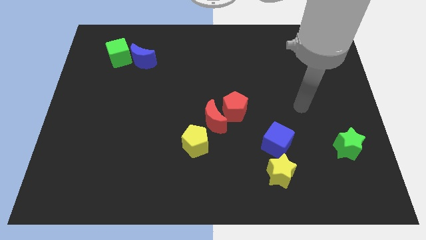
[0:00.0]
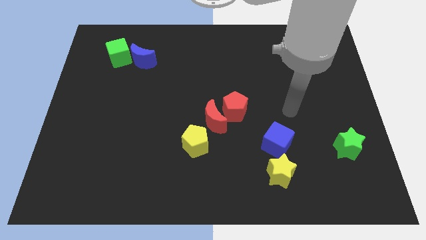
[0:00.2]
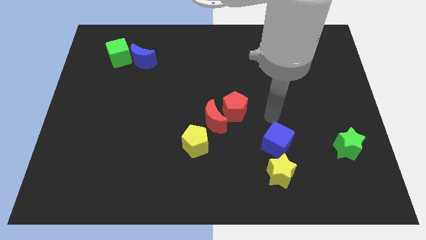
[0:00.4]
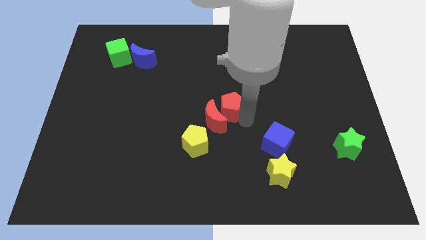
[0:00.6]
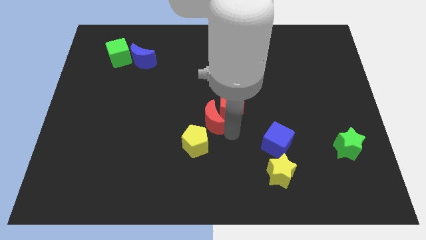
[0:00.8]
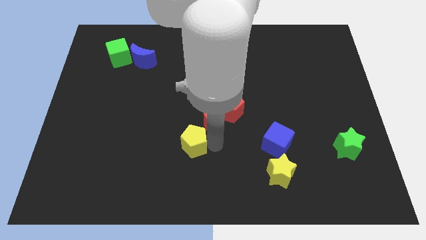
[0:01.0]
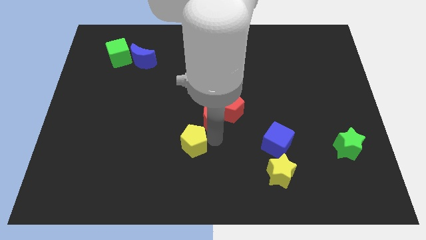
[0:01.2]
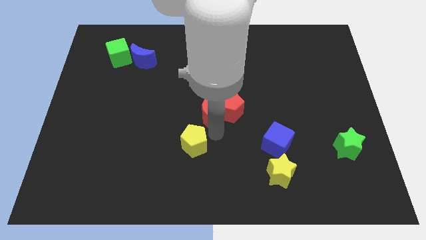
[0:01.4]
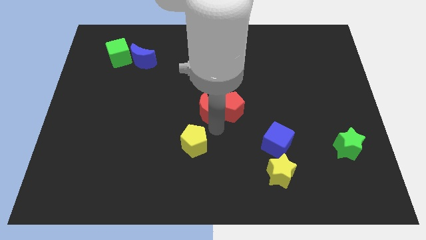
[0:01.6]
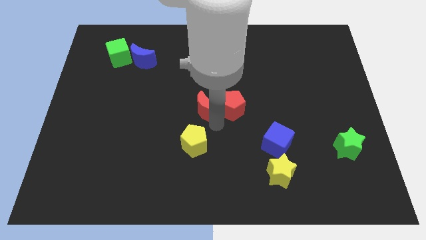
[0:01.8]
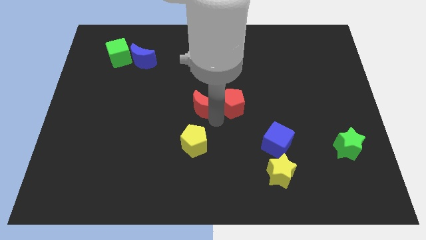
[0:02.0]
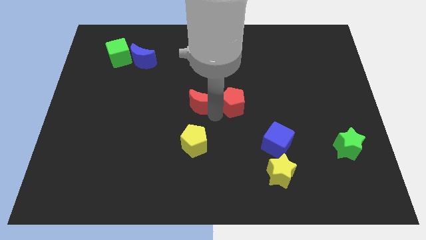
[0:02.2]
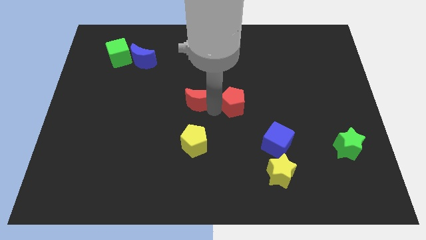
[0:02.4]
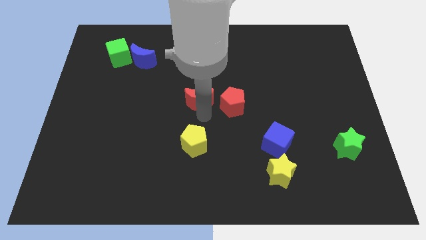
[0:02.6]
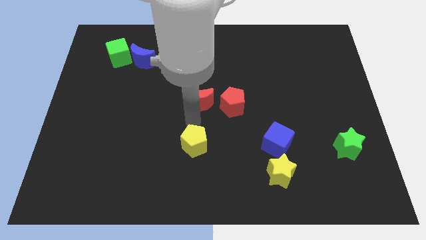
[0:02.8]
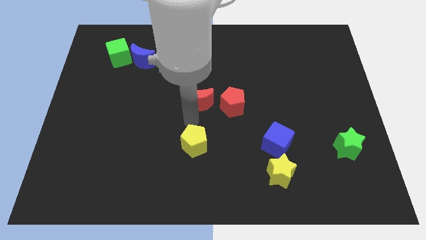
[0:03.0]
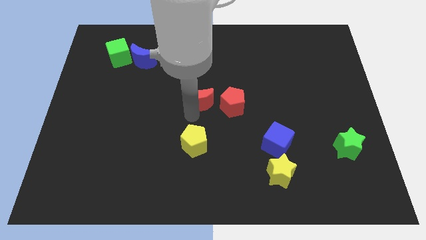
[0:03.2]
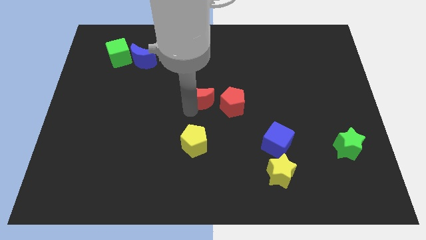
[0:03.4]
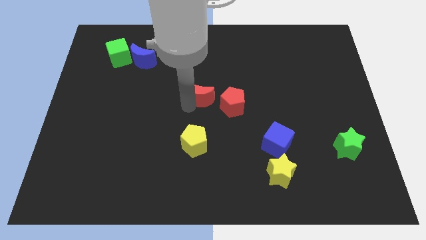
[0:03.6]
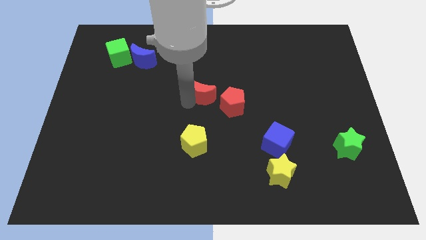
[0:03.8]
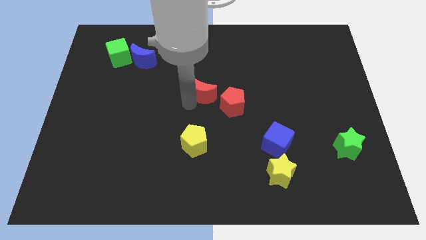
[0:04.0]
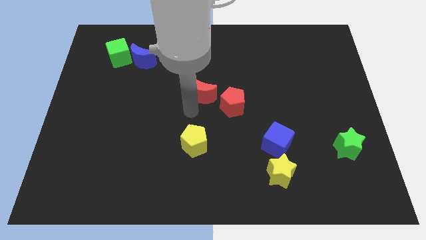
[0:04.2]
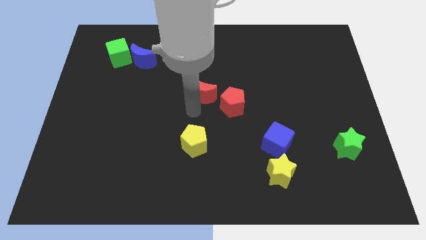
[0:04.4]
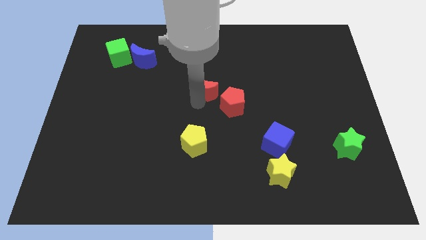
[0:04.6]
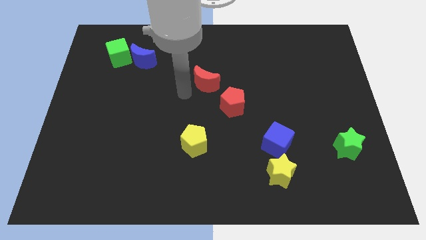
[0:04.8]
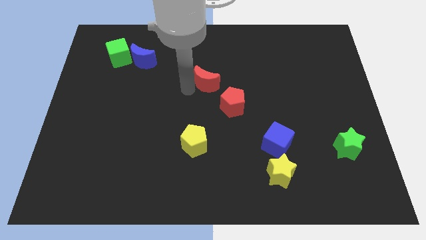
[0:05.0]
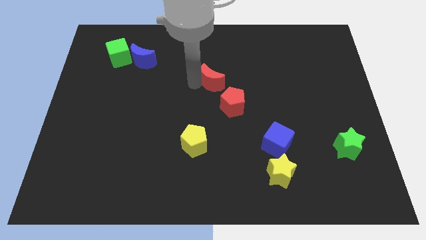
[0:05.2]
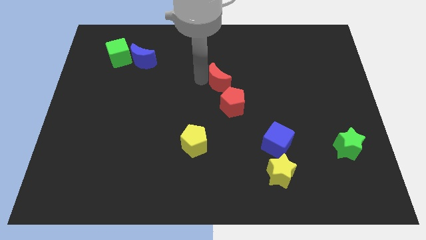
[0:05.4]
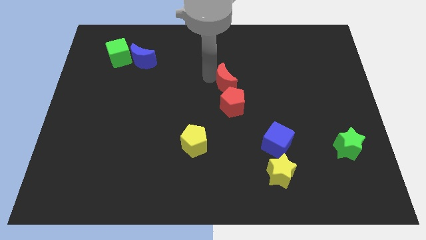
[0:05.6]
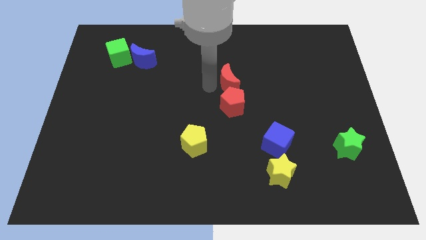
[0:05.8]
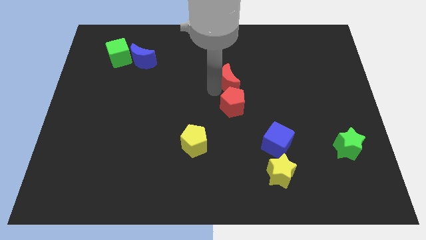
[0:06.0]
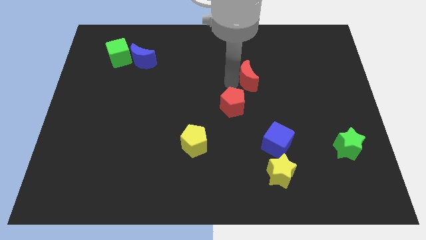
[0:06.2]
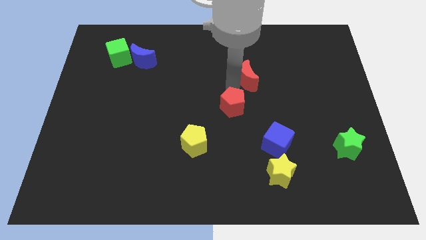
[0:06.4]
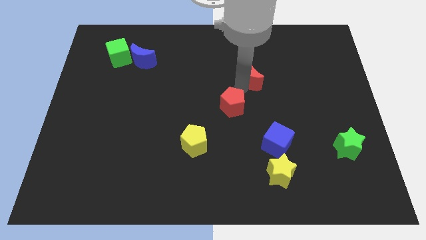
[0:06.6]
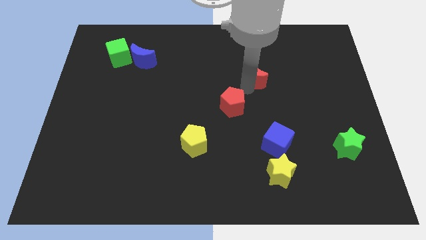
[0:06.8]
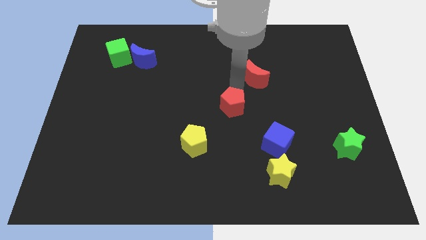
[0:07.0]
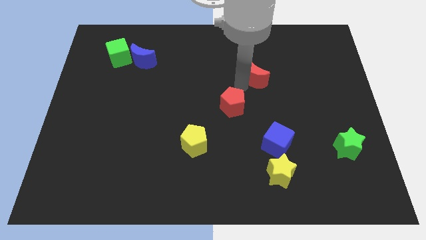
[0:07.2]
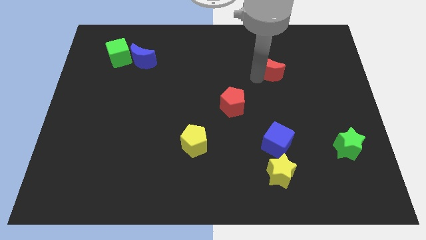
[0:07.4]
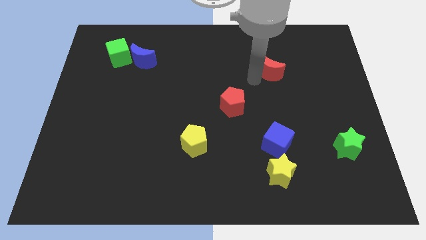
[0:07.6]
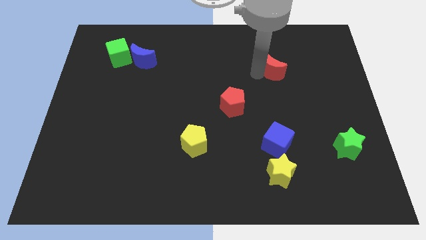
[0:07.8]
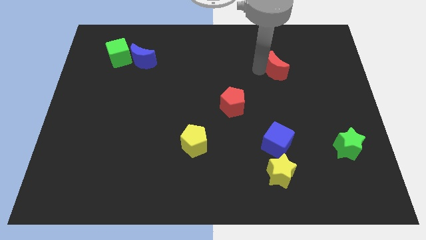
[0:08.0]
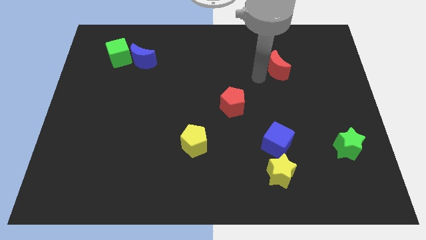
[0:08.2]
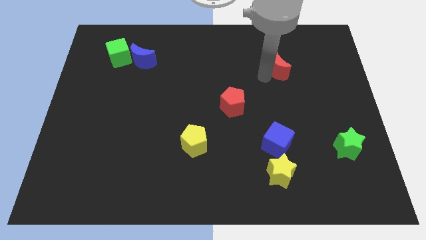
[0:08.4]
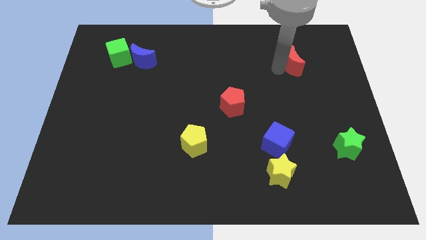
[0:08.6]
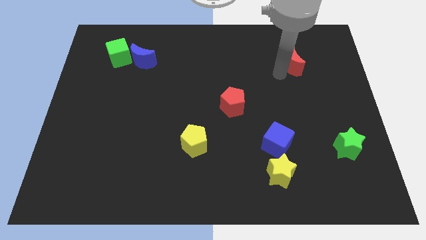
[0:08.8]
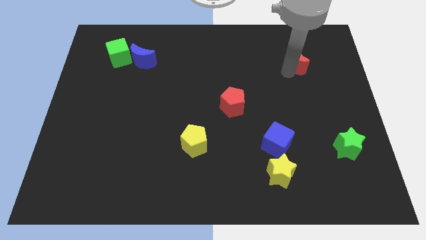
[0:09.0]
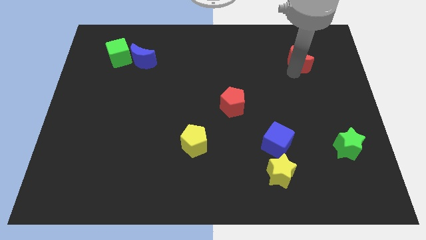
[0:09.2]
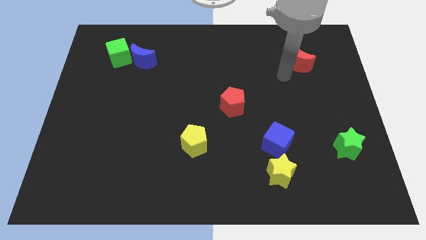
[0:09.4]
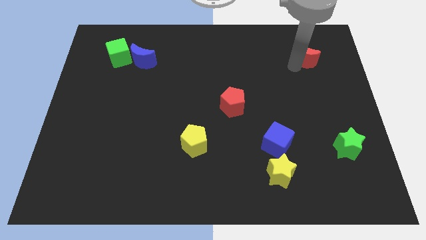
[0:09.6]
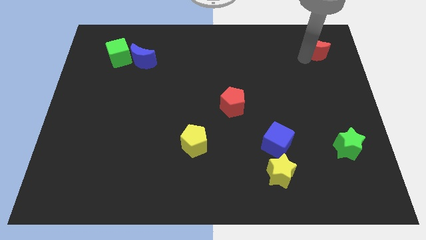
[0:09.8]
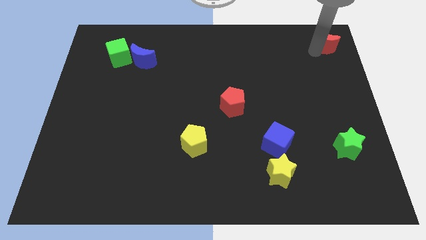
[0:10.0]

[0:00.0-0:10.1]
put the red moon to the top right of the board

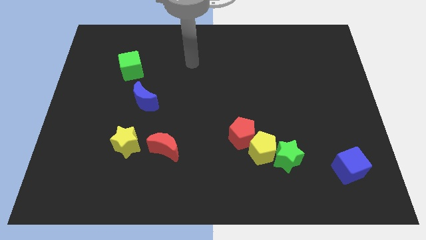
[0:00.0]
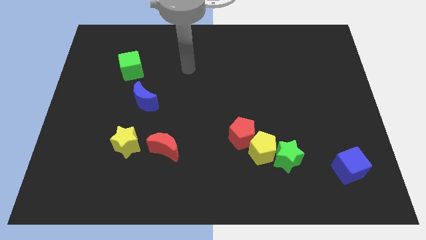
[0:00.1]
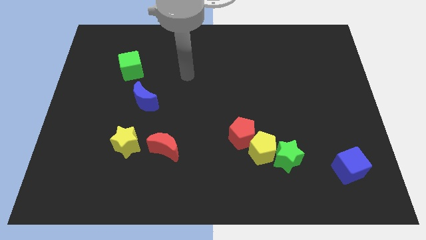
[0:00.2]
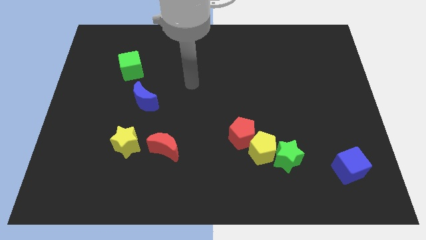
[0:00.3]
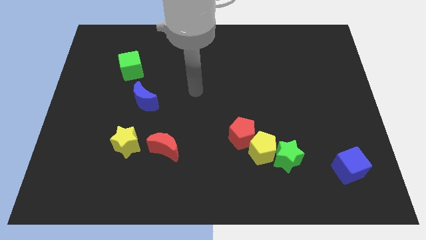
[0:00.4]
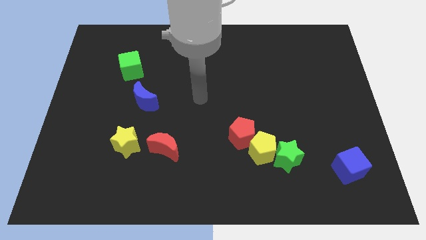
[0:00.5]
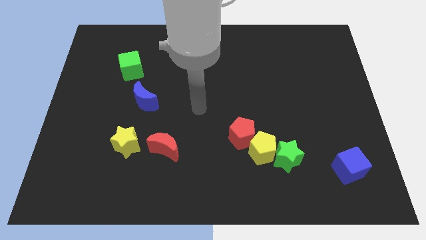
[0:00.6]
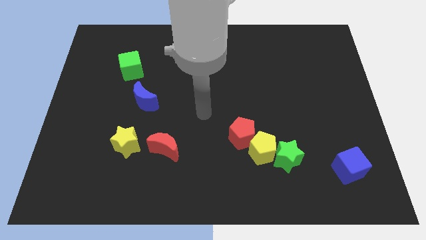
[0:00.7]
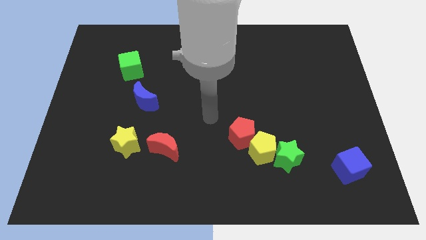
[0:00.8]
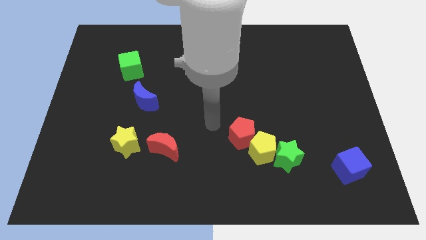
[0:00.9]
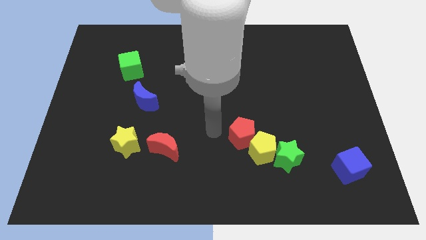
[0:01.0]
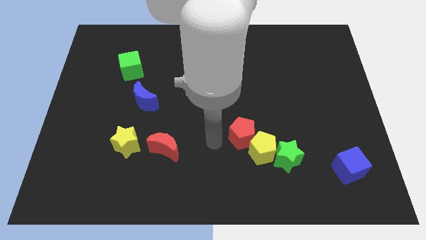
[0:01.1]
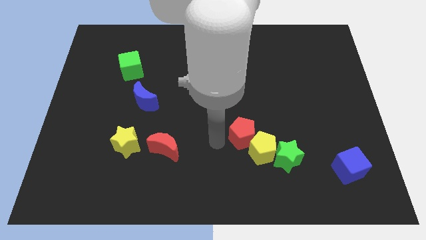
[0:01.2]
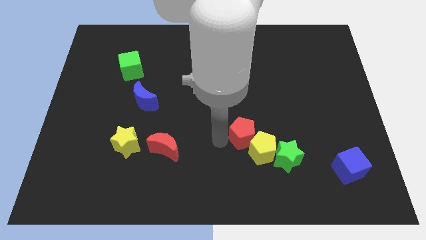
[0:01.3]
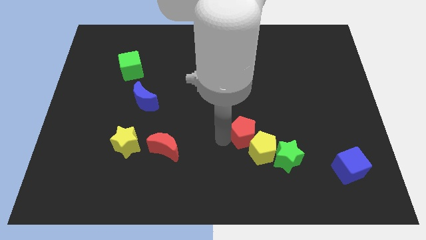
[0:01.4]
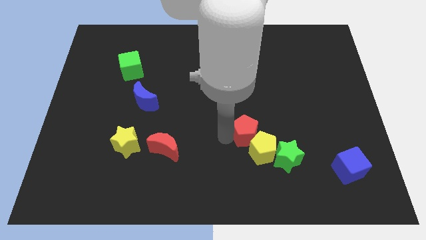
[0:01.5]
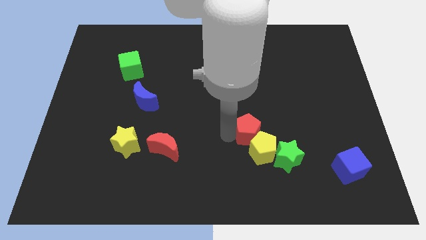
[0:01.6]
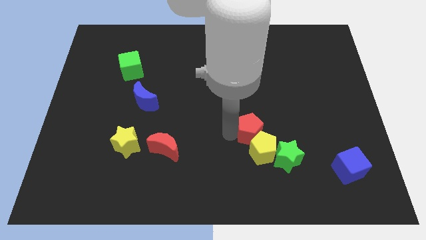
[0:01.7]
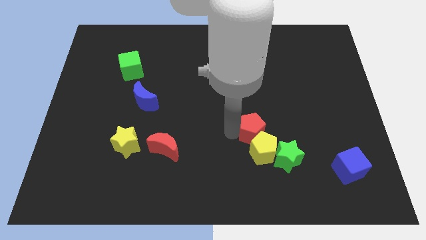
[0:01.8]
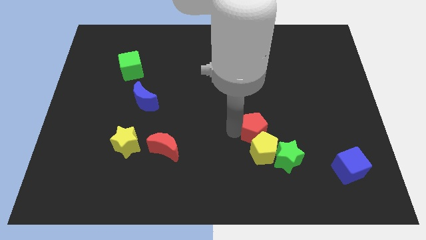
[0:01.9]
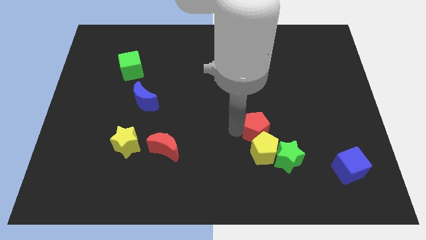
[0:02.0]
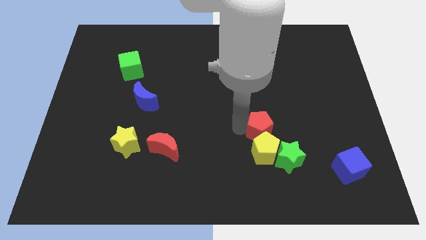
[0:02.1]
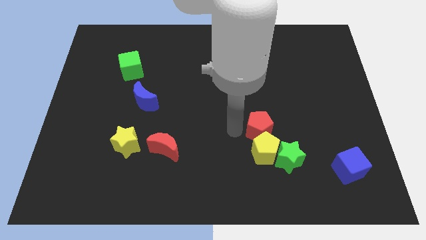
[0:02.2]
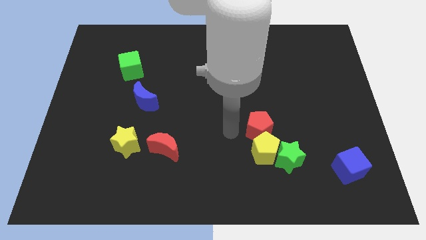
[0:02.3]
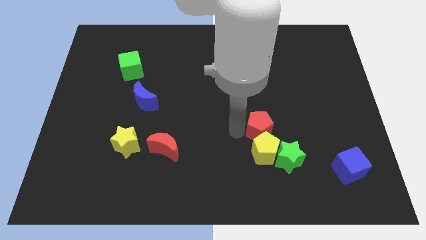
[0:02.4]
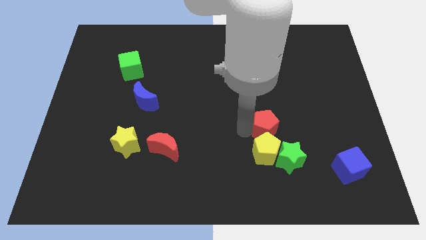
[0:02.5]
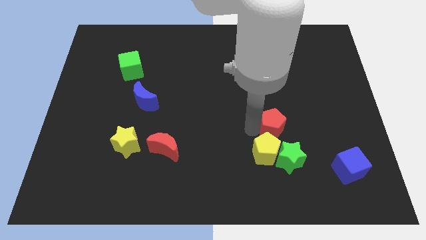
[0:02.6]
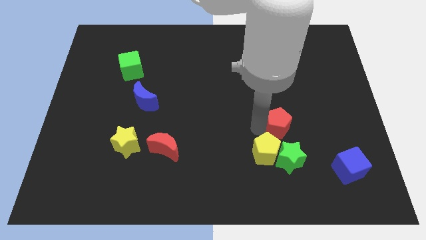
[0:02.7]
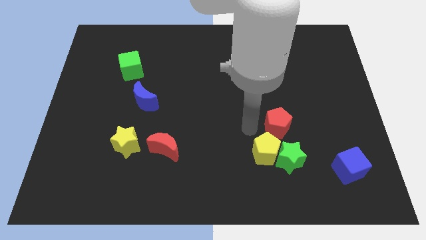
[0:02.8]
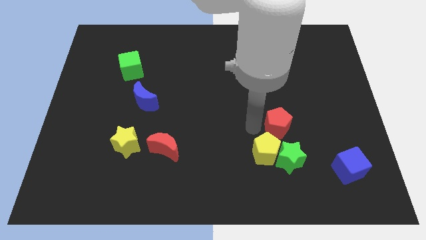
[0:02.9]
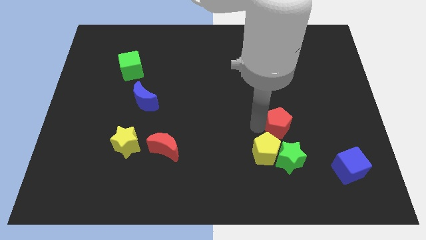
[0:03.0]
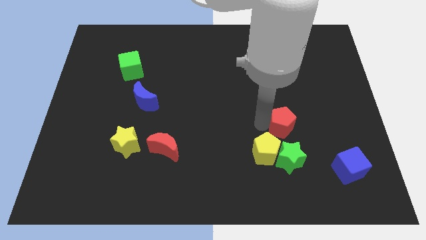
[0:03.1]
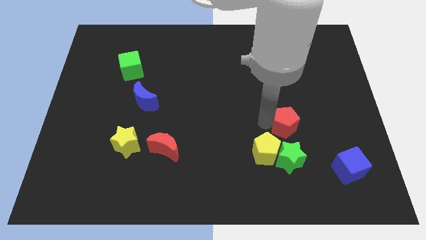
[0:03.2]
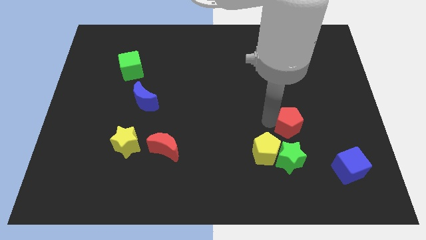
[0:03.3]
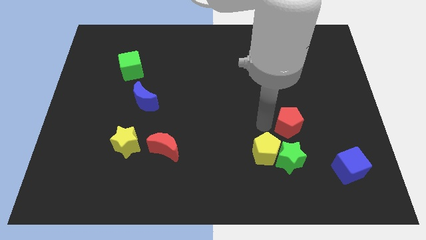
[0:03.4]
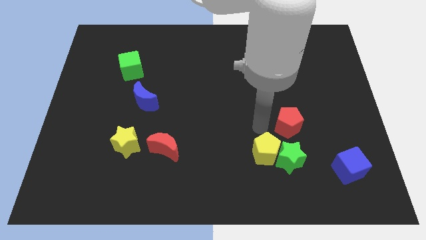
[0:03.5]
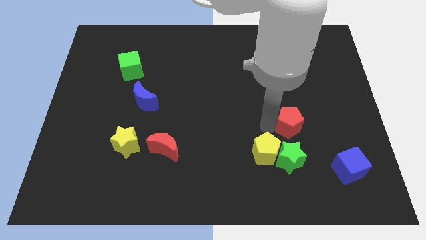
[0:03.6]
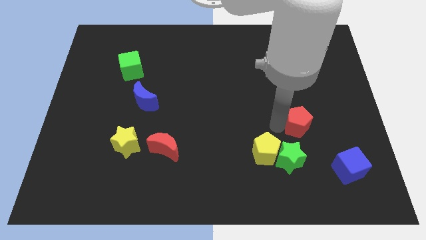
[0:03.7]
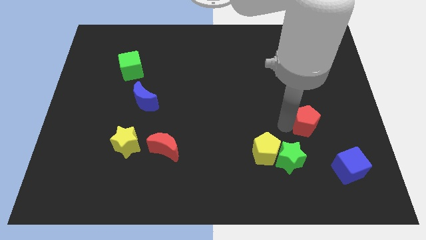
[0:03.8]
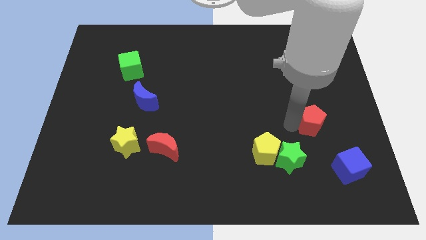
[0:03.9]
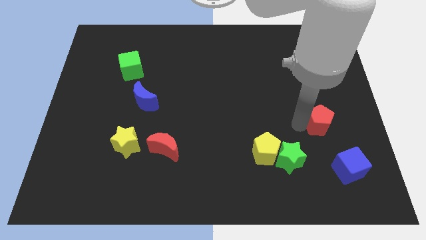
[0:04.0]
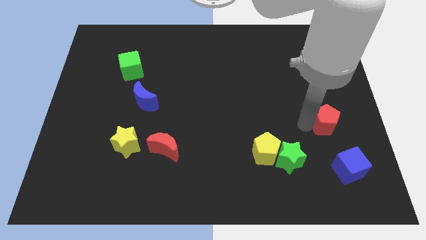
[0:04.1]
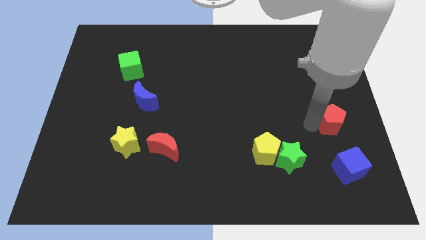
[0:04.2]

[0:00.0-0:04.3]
push the red pentagon to the right side
